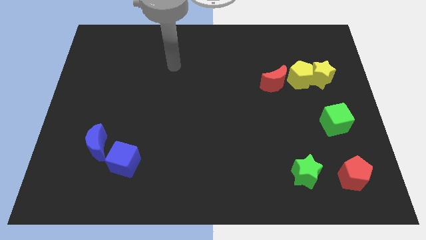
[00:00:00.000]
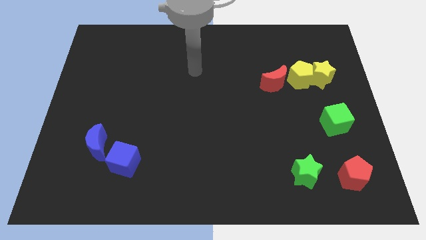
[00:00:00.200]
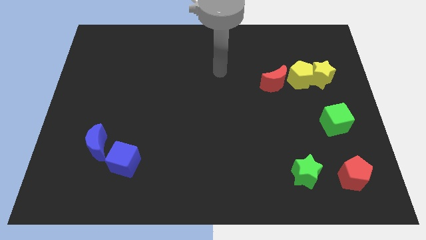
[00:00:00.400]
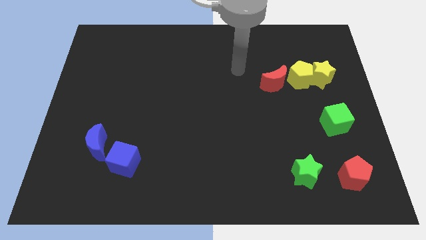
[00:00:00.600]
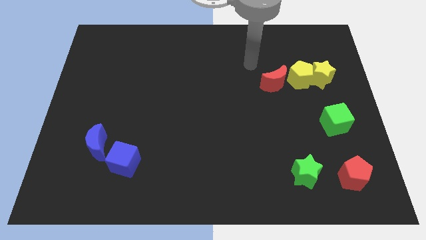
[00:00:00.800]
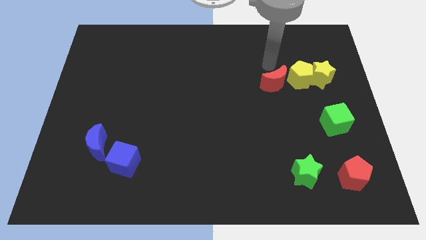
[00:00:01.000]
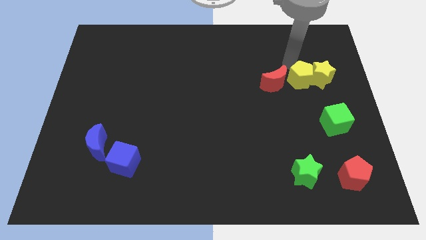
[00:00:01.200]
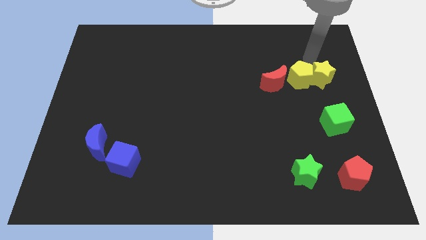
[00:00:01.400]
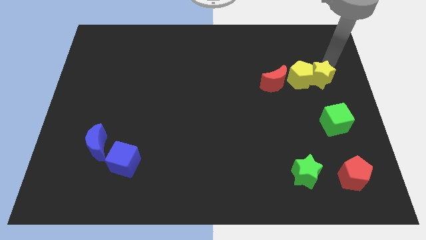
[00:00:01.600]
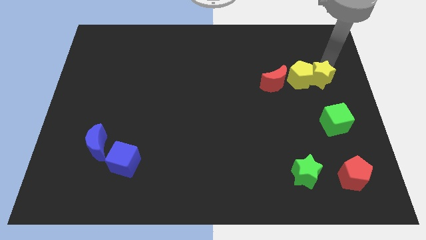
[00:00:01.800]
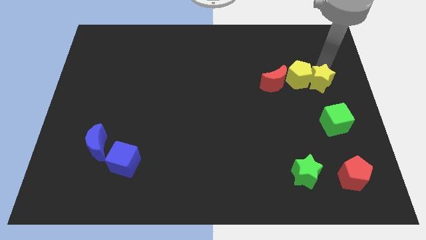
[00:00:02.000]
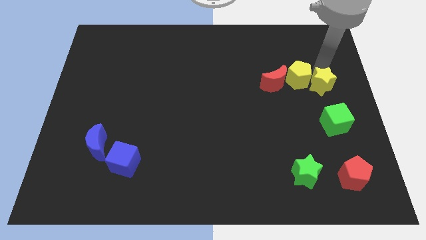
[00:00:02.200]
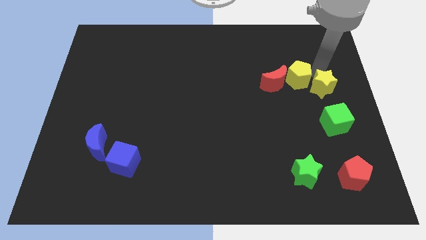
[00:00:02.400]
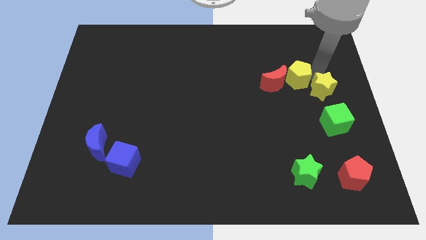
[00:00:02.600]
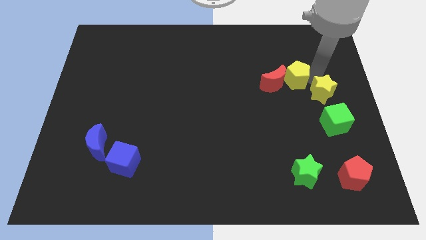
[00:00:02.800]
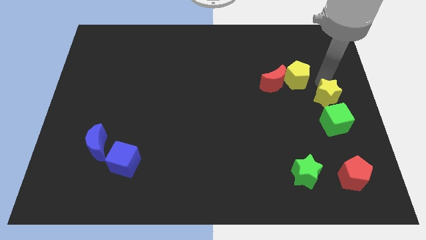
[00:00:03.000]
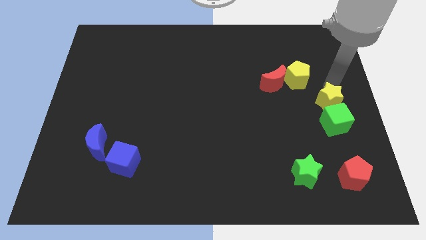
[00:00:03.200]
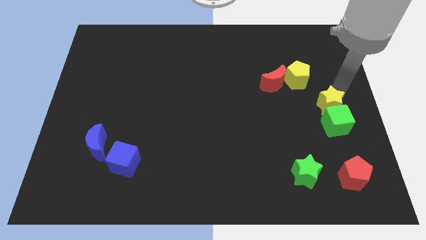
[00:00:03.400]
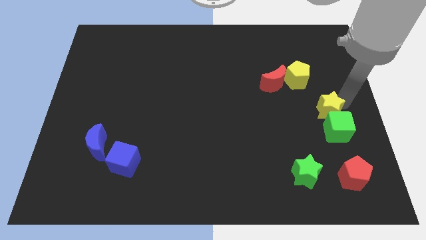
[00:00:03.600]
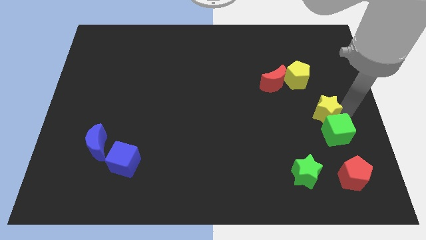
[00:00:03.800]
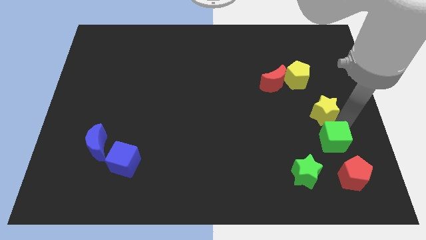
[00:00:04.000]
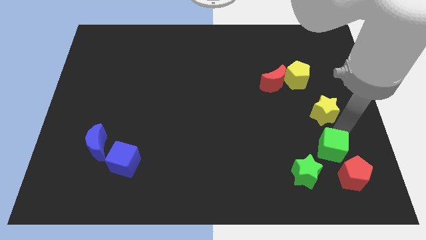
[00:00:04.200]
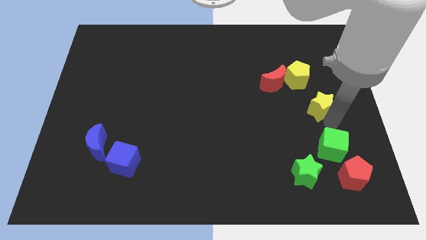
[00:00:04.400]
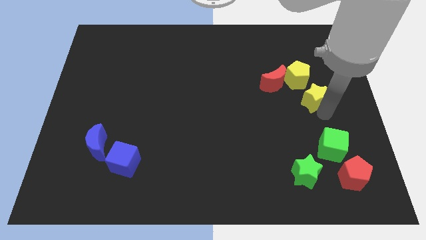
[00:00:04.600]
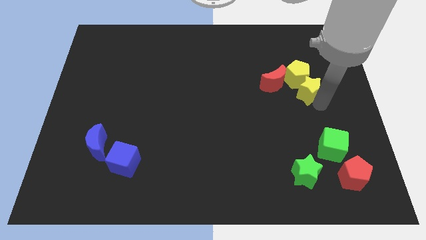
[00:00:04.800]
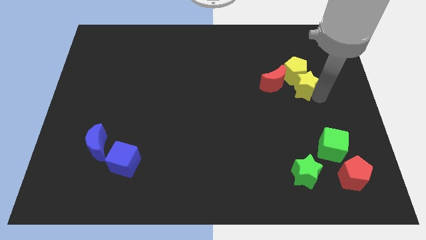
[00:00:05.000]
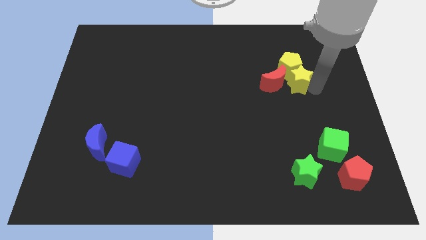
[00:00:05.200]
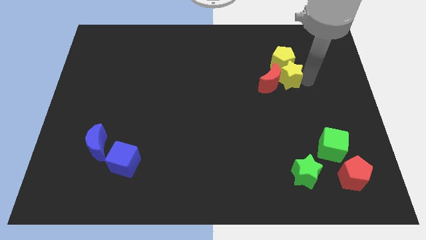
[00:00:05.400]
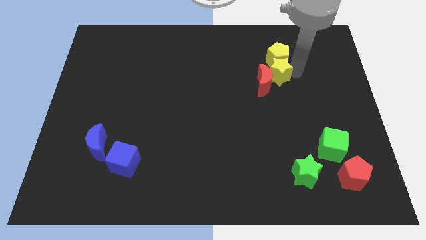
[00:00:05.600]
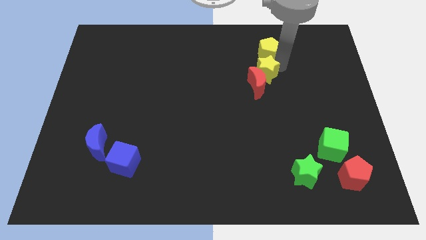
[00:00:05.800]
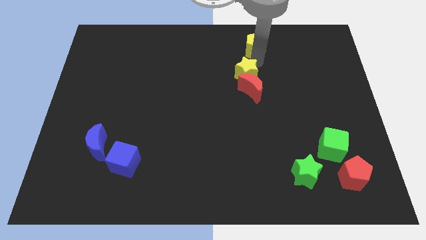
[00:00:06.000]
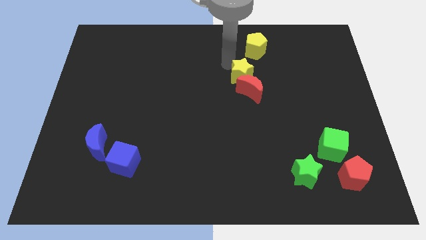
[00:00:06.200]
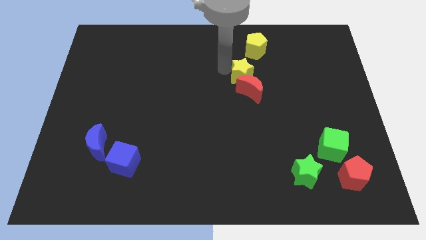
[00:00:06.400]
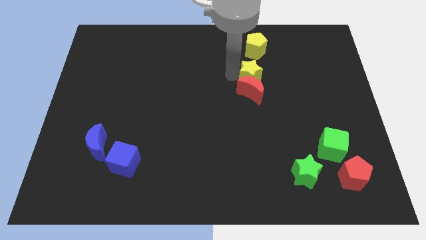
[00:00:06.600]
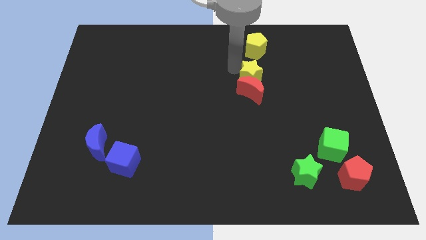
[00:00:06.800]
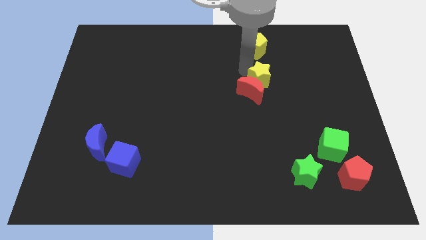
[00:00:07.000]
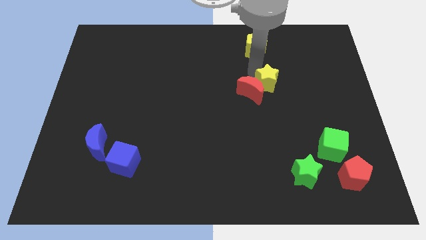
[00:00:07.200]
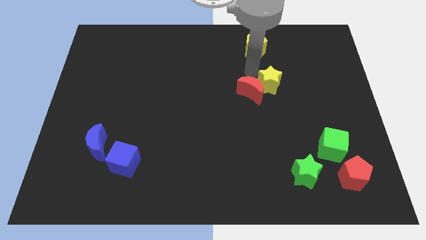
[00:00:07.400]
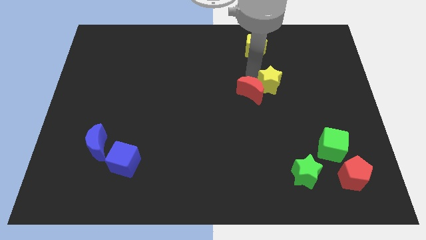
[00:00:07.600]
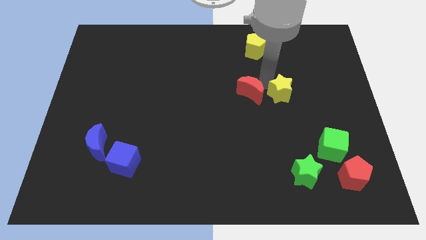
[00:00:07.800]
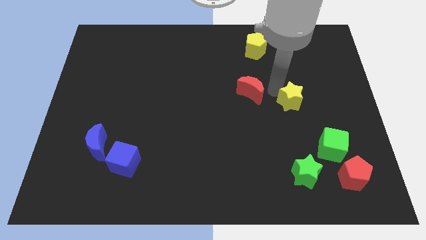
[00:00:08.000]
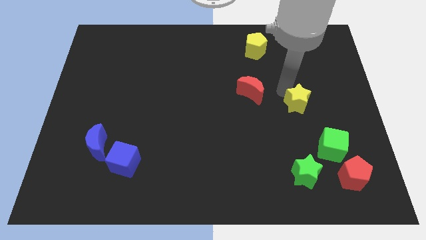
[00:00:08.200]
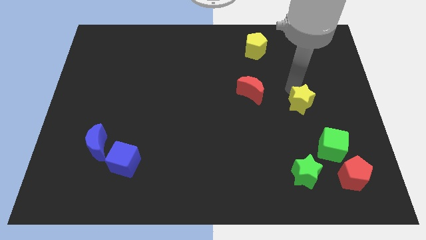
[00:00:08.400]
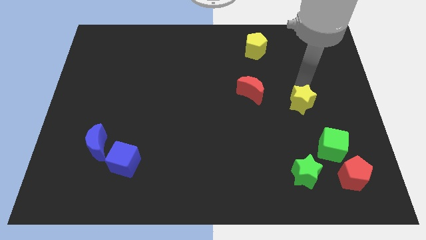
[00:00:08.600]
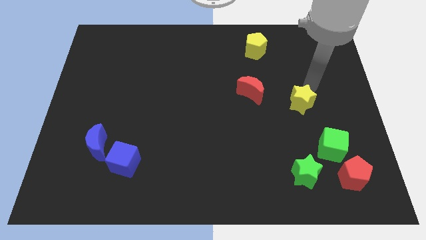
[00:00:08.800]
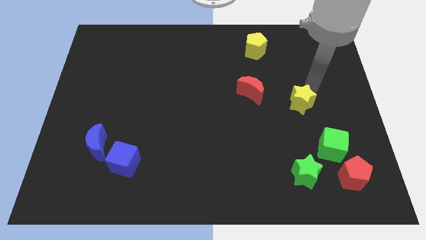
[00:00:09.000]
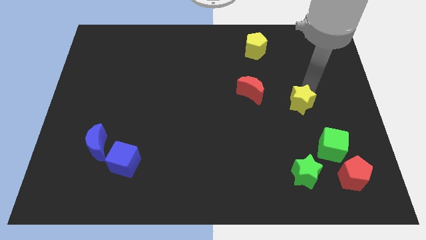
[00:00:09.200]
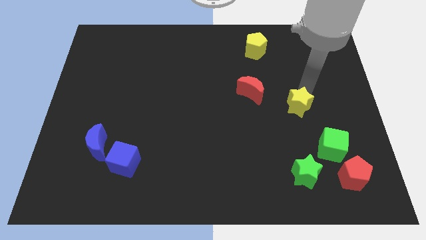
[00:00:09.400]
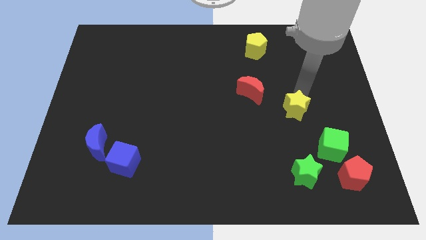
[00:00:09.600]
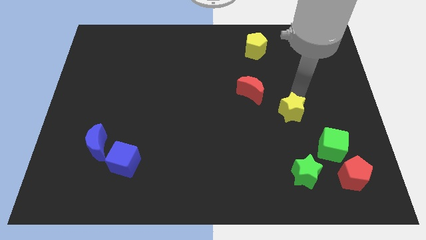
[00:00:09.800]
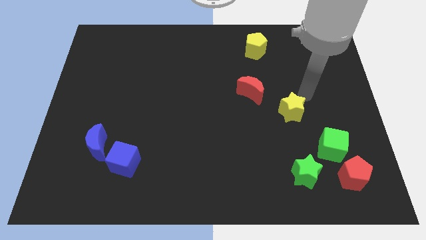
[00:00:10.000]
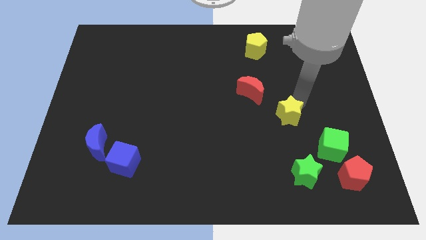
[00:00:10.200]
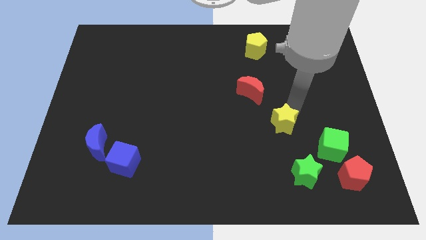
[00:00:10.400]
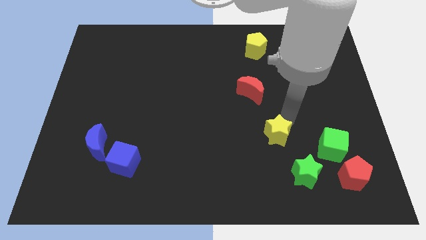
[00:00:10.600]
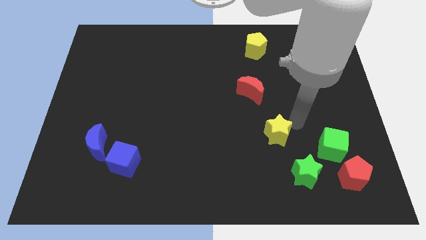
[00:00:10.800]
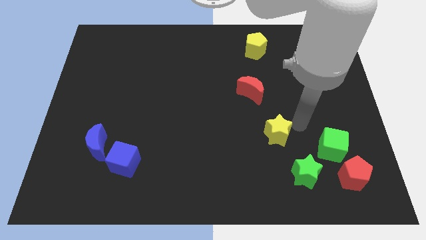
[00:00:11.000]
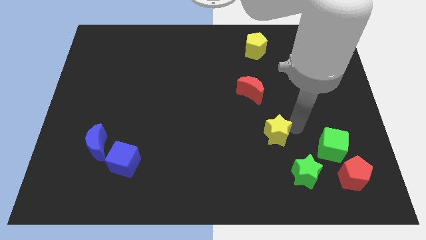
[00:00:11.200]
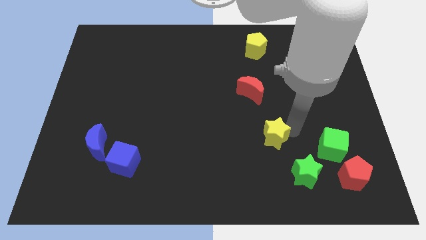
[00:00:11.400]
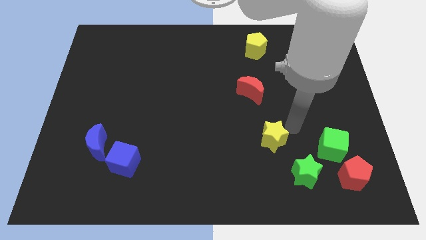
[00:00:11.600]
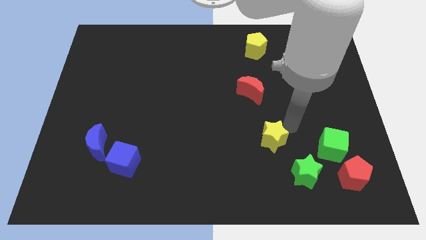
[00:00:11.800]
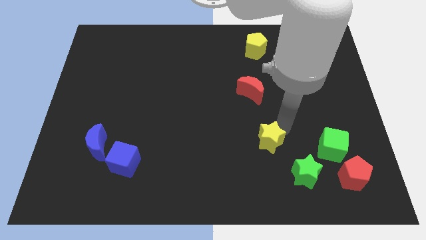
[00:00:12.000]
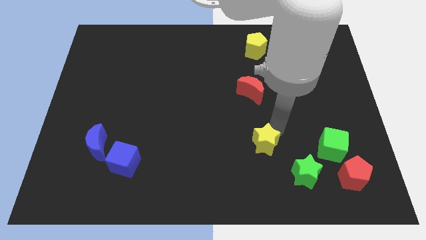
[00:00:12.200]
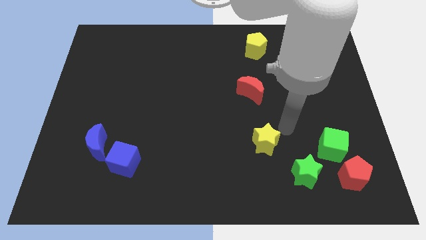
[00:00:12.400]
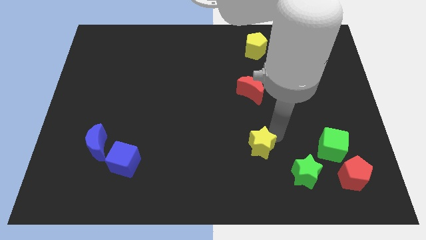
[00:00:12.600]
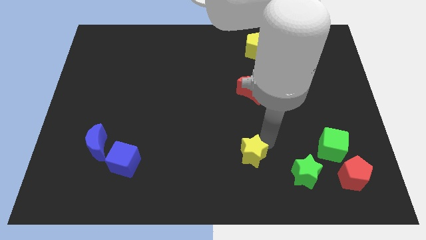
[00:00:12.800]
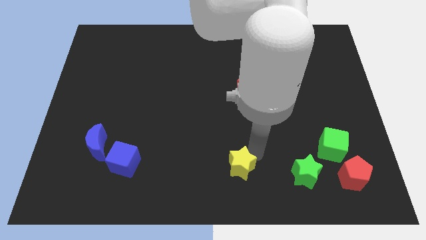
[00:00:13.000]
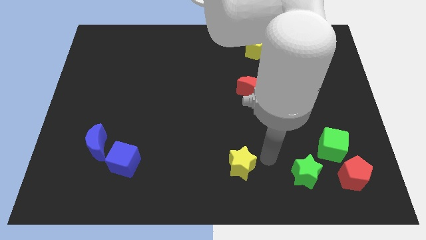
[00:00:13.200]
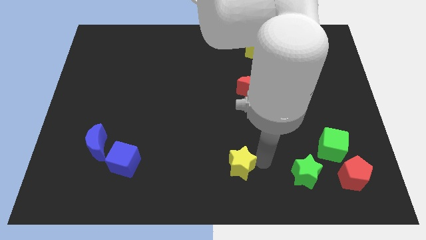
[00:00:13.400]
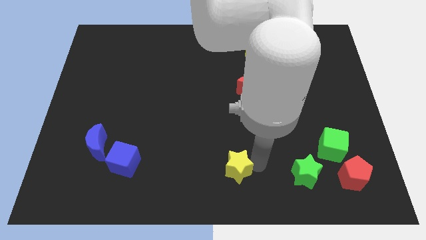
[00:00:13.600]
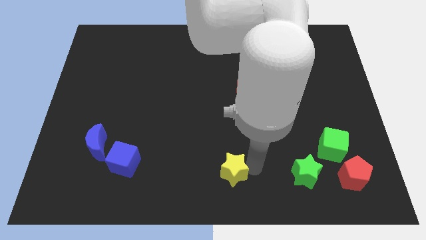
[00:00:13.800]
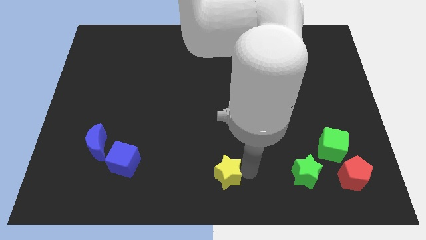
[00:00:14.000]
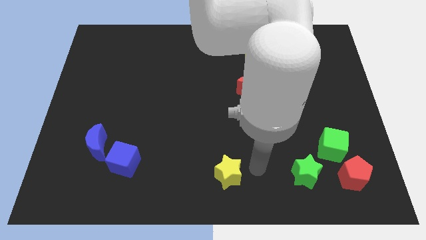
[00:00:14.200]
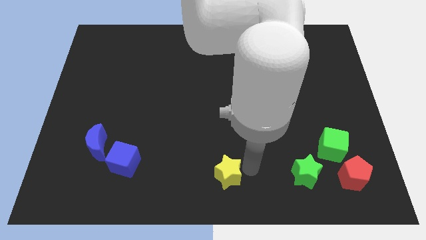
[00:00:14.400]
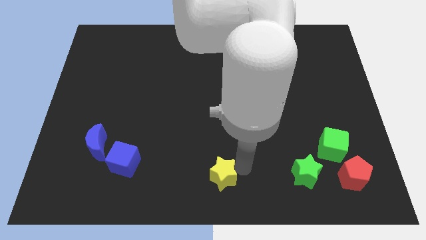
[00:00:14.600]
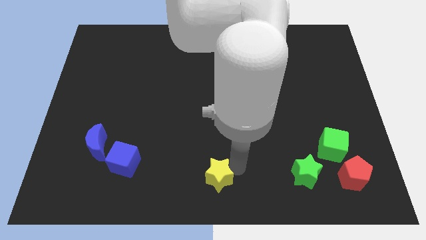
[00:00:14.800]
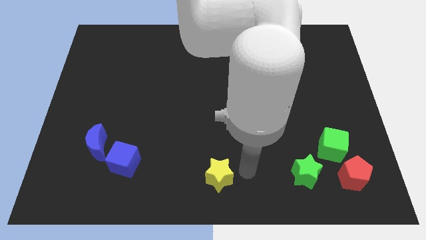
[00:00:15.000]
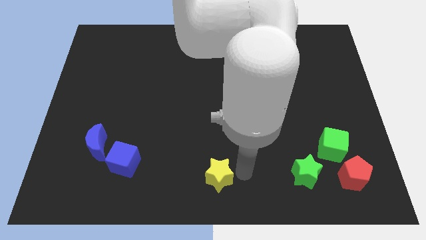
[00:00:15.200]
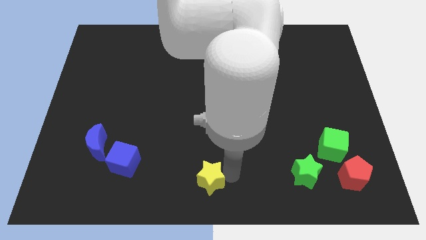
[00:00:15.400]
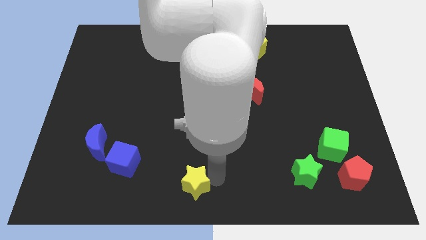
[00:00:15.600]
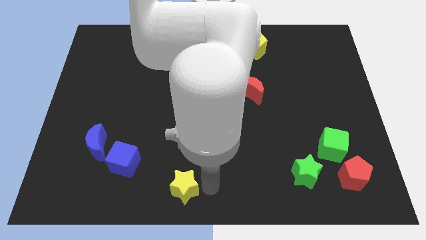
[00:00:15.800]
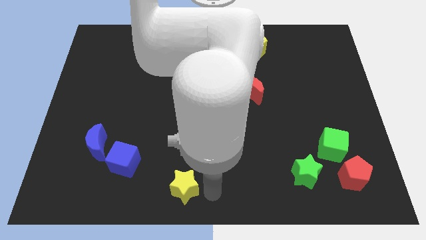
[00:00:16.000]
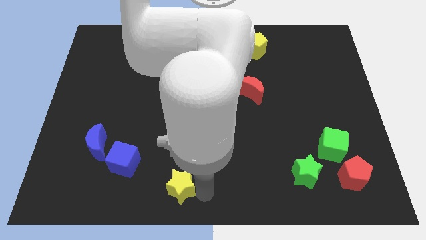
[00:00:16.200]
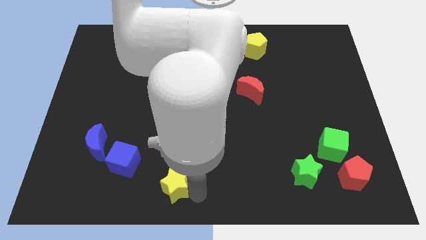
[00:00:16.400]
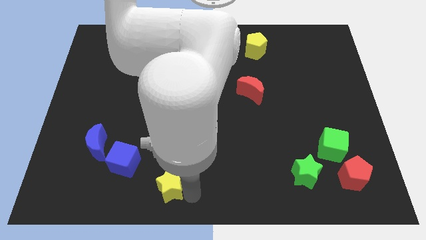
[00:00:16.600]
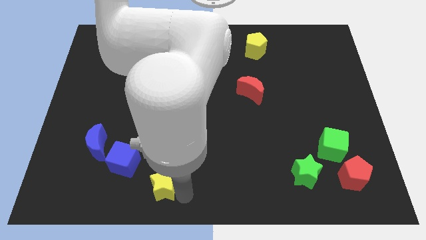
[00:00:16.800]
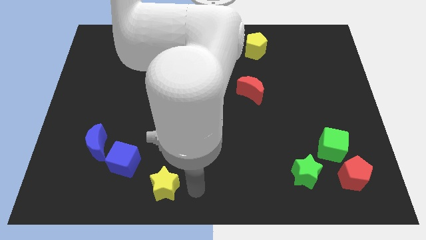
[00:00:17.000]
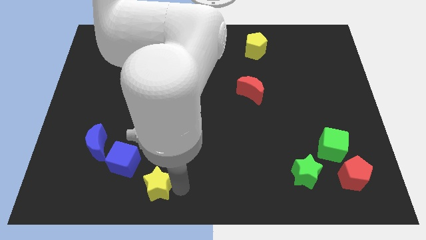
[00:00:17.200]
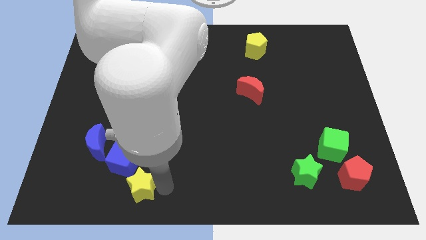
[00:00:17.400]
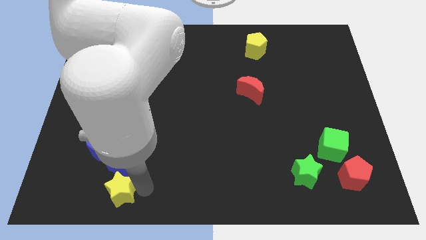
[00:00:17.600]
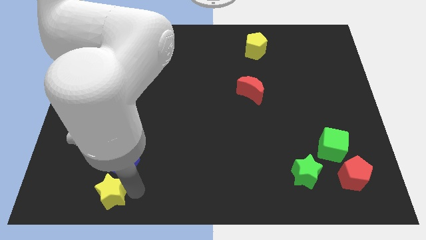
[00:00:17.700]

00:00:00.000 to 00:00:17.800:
slide the yellow star diagonally down and to the left of the blue cube
